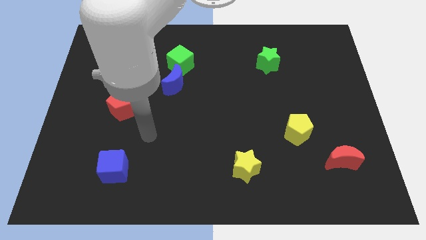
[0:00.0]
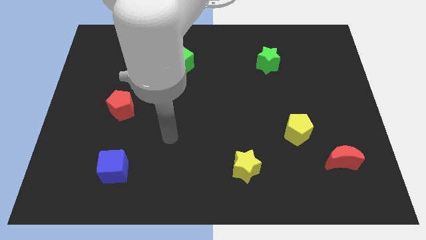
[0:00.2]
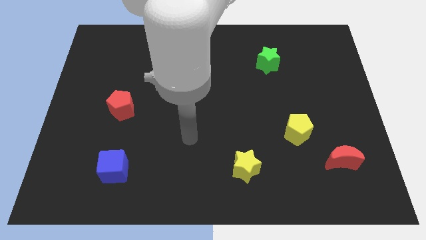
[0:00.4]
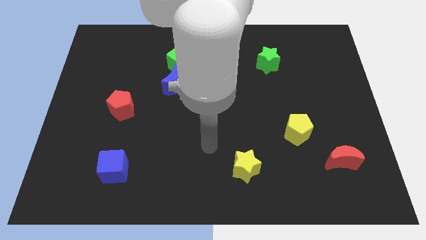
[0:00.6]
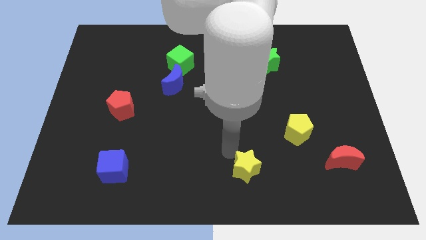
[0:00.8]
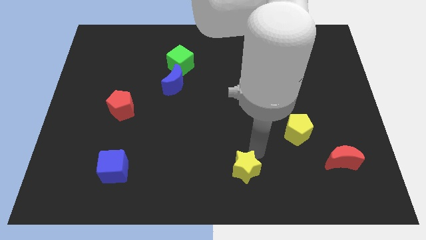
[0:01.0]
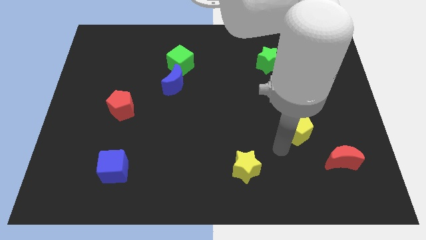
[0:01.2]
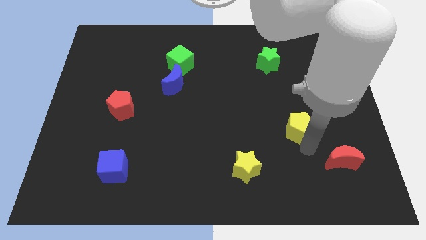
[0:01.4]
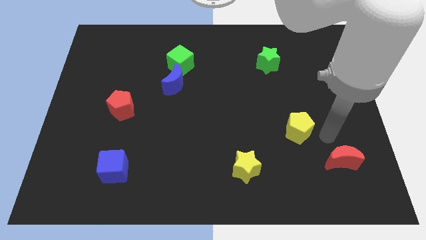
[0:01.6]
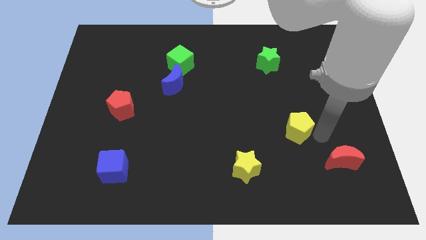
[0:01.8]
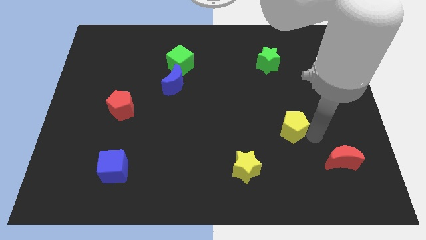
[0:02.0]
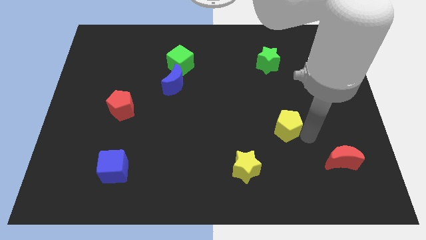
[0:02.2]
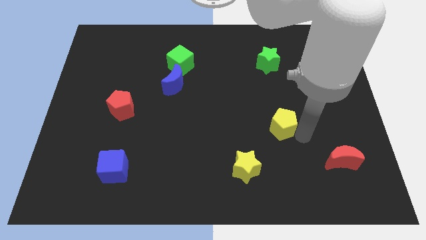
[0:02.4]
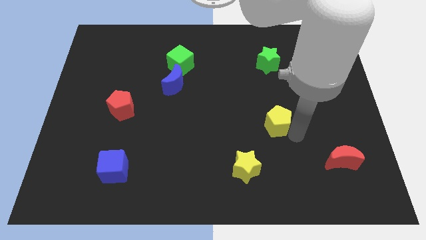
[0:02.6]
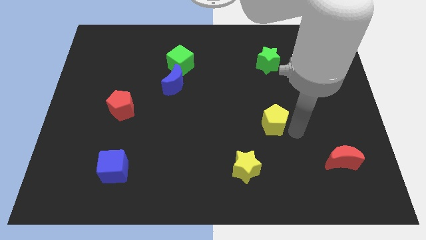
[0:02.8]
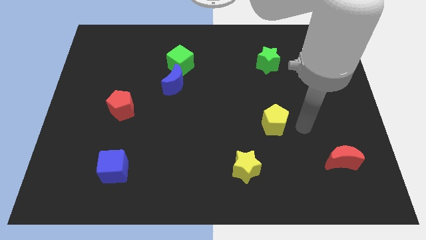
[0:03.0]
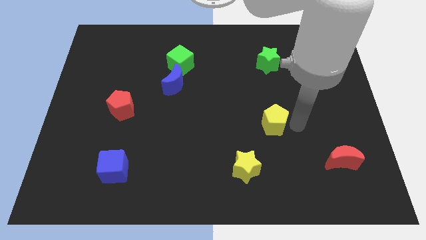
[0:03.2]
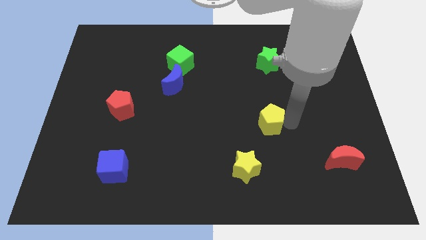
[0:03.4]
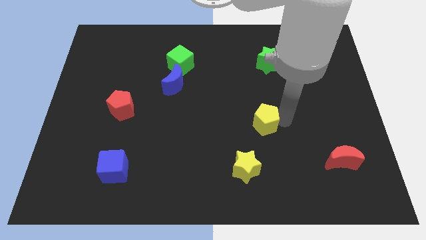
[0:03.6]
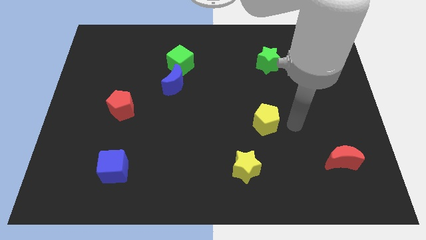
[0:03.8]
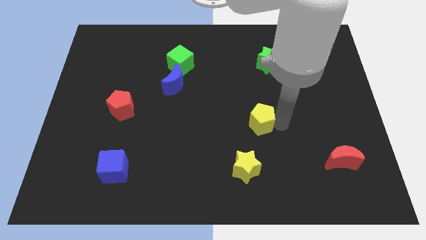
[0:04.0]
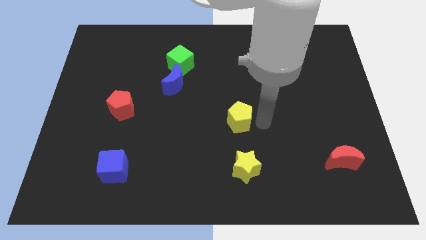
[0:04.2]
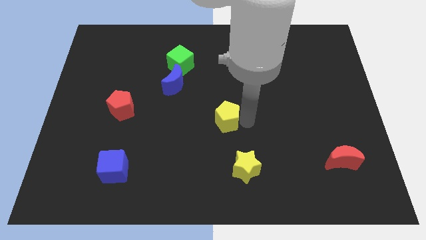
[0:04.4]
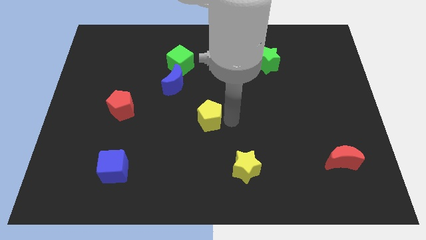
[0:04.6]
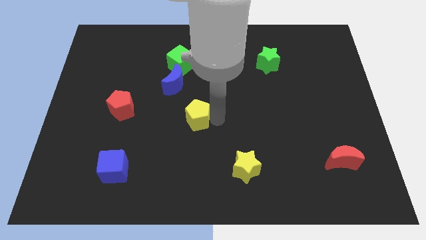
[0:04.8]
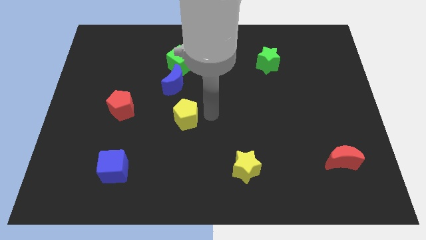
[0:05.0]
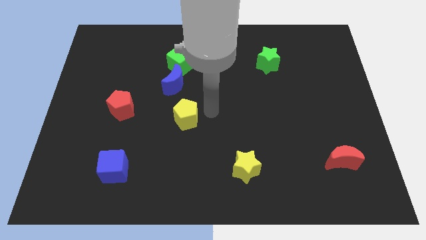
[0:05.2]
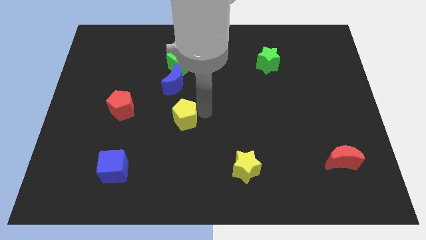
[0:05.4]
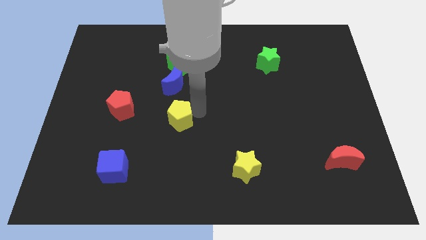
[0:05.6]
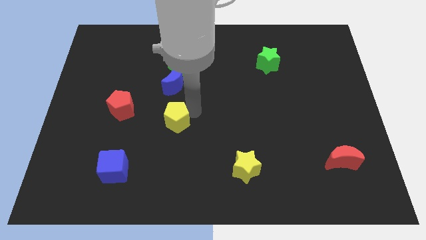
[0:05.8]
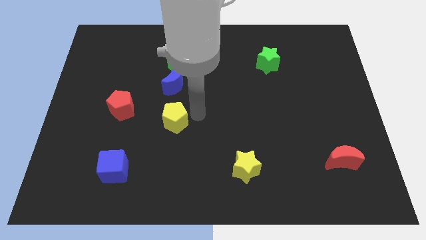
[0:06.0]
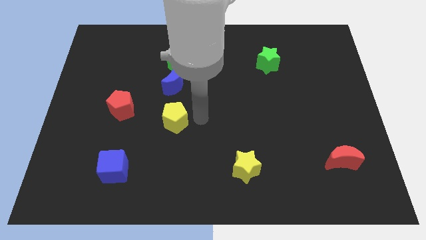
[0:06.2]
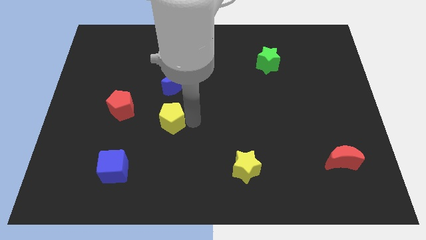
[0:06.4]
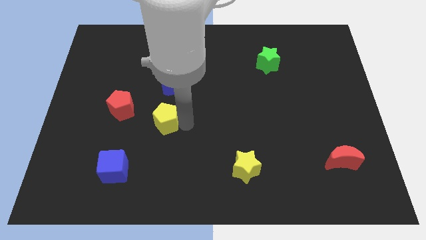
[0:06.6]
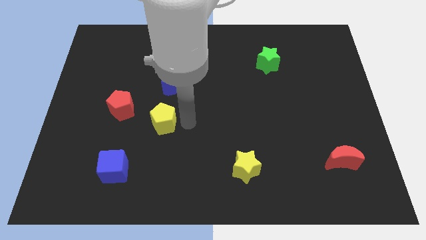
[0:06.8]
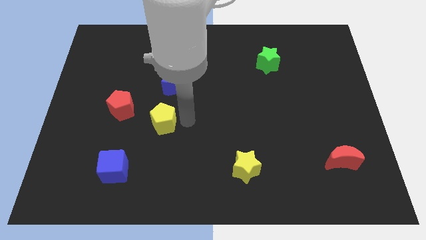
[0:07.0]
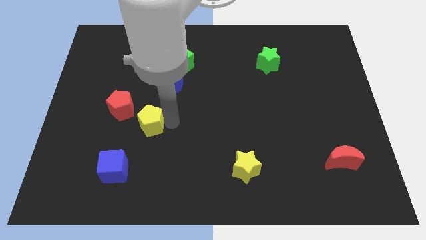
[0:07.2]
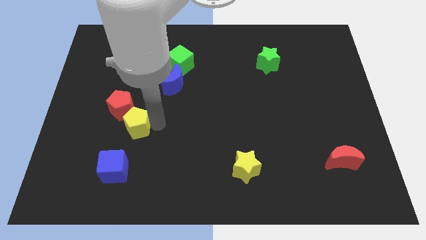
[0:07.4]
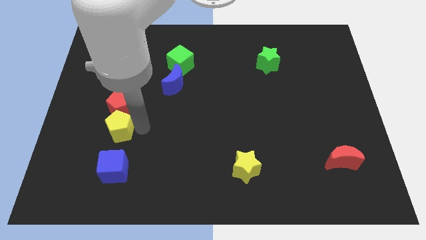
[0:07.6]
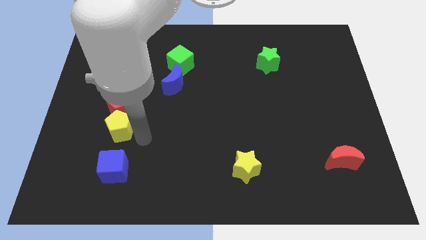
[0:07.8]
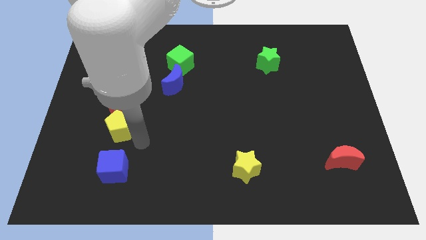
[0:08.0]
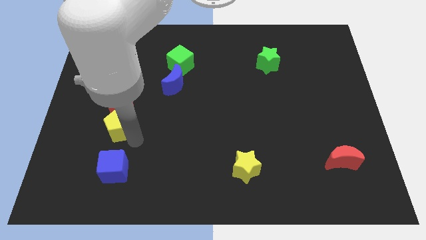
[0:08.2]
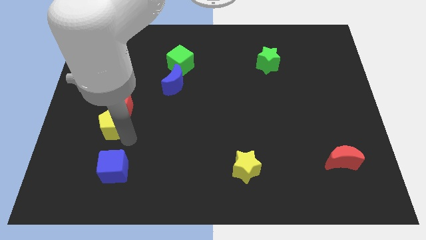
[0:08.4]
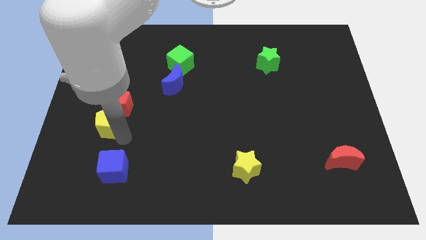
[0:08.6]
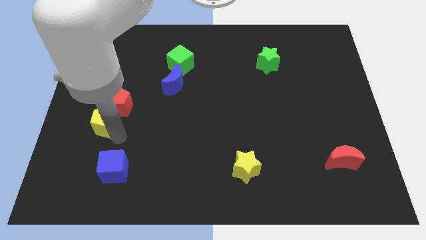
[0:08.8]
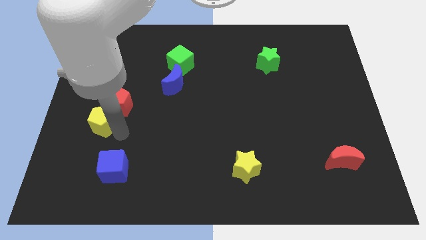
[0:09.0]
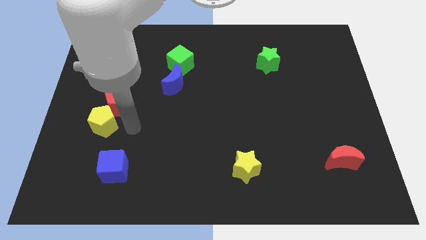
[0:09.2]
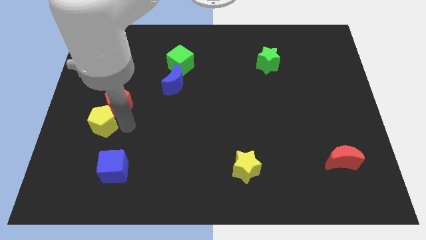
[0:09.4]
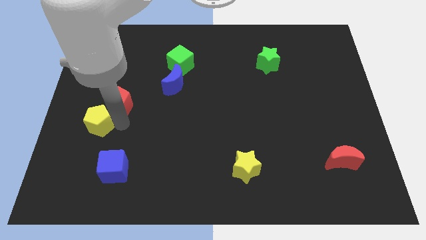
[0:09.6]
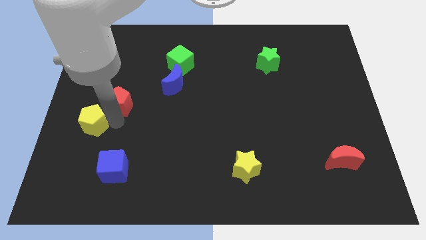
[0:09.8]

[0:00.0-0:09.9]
put the yellow pentagon to the left side

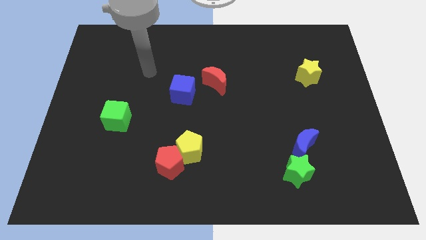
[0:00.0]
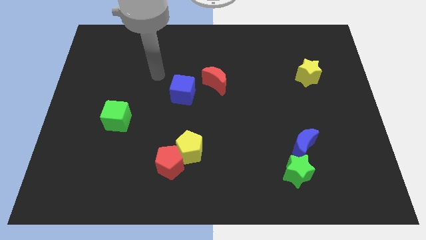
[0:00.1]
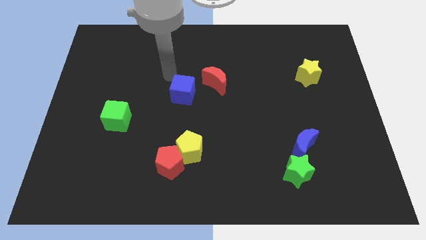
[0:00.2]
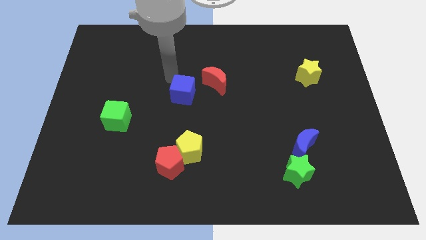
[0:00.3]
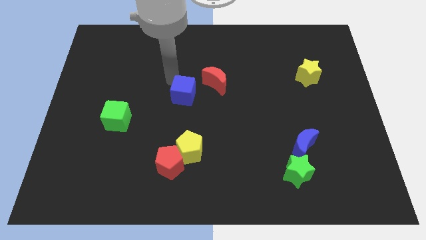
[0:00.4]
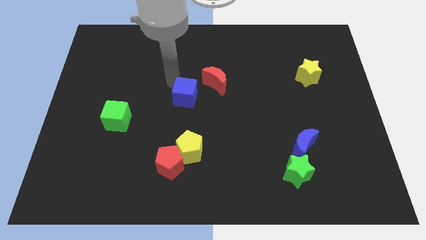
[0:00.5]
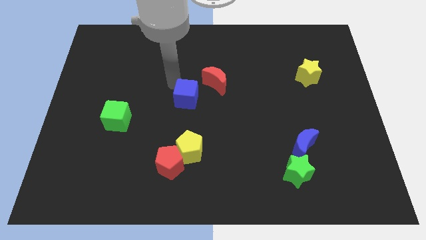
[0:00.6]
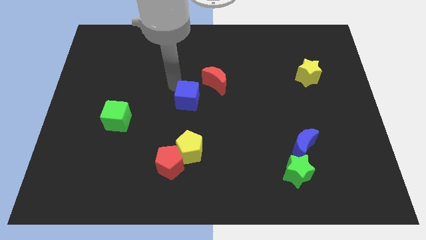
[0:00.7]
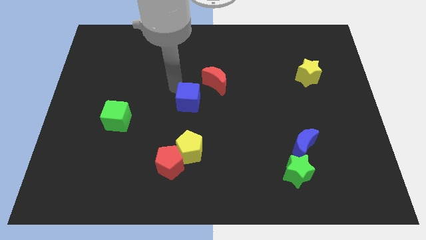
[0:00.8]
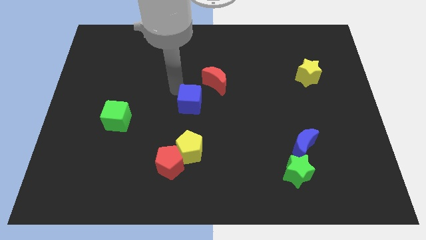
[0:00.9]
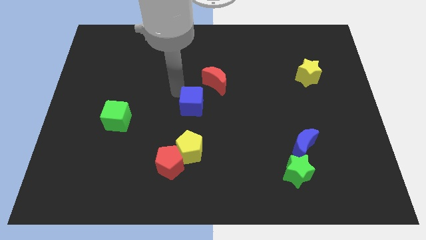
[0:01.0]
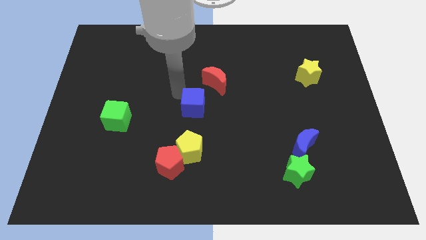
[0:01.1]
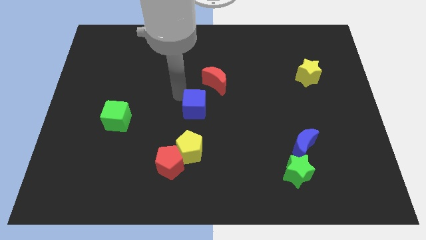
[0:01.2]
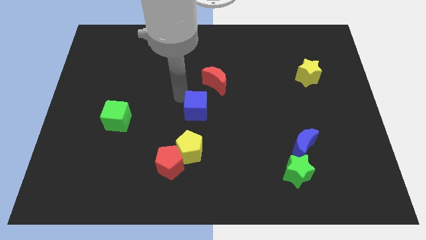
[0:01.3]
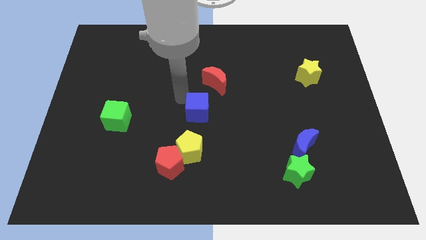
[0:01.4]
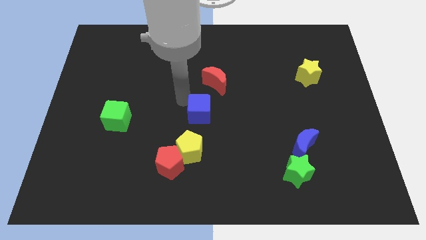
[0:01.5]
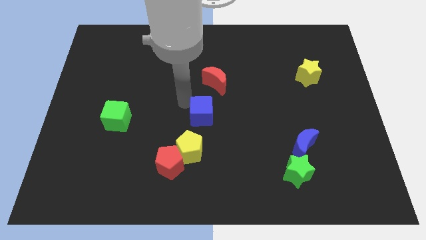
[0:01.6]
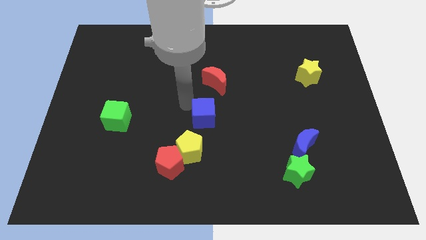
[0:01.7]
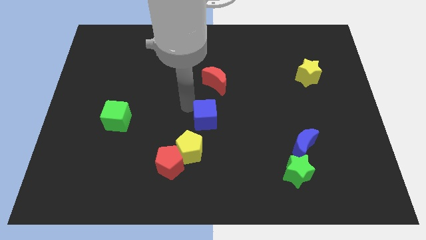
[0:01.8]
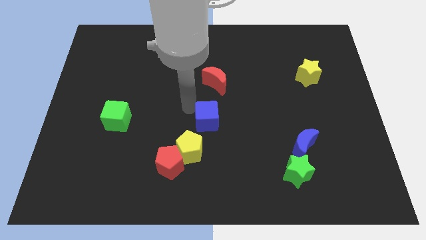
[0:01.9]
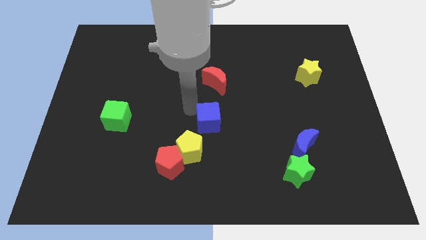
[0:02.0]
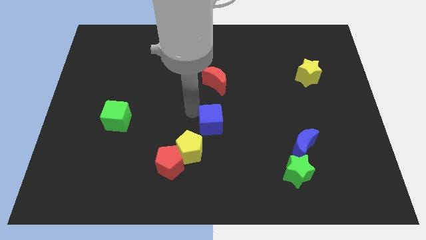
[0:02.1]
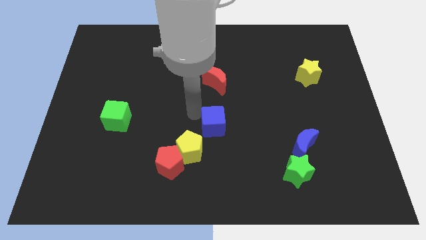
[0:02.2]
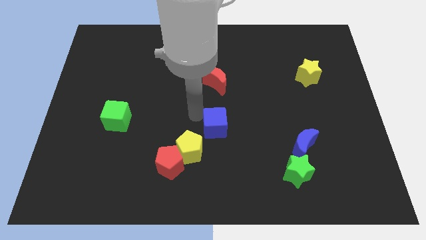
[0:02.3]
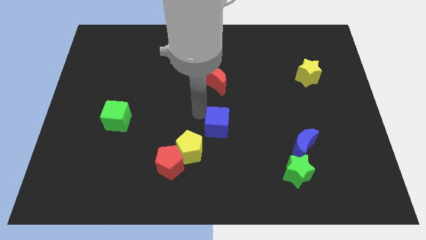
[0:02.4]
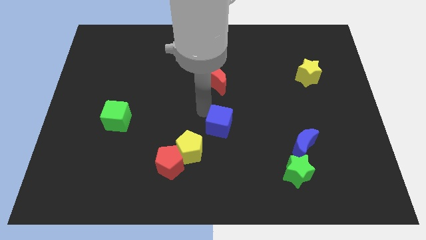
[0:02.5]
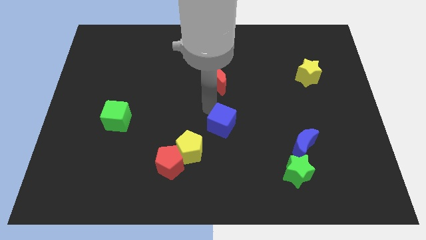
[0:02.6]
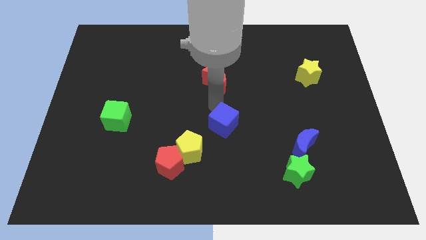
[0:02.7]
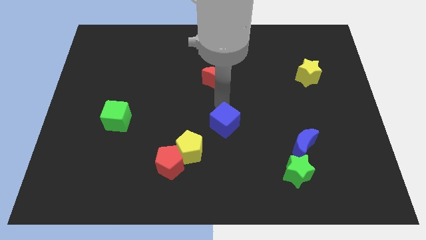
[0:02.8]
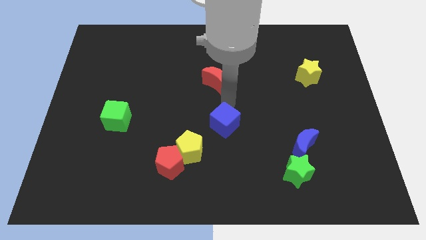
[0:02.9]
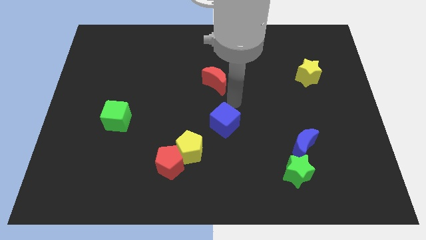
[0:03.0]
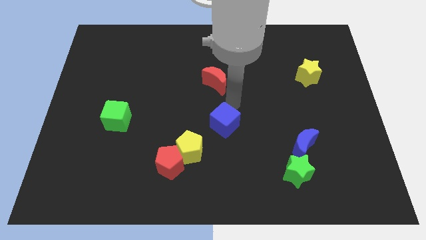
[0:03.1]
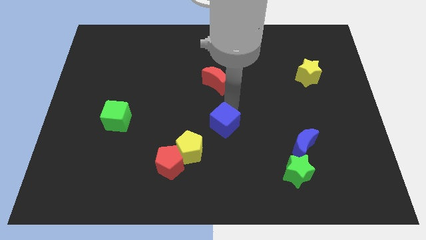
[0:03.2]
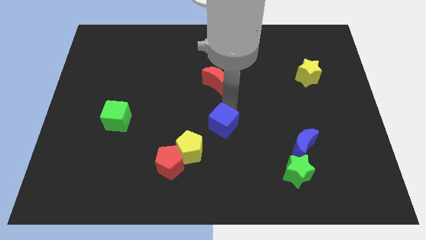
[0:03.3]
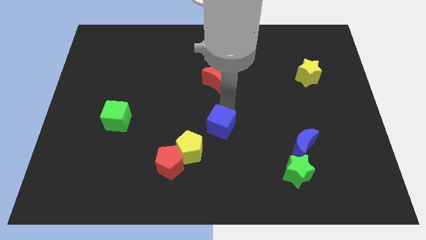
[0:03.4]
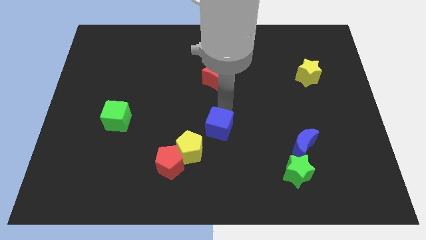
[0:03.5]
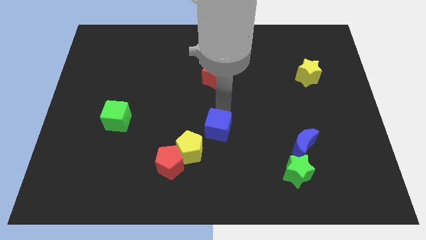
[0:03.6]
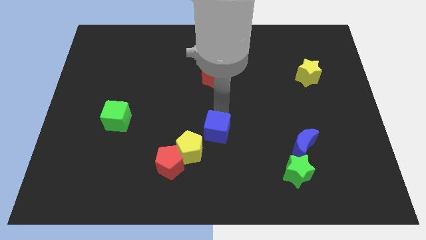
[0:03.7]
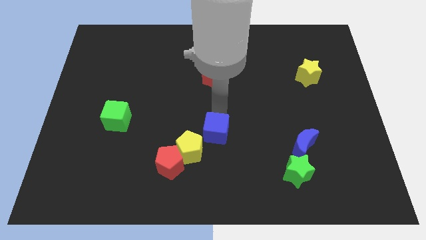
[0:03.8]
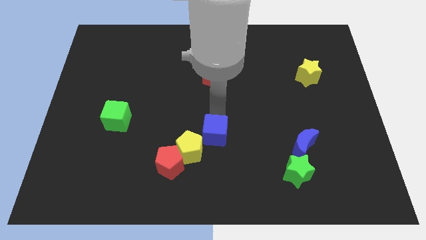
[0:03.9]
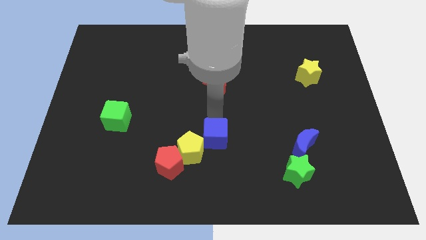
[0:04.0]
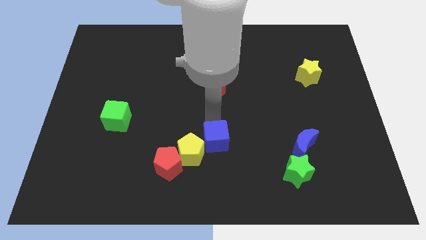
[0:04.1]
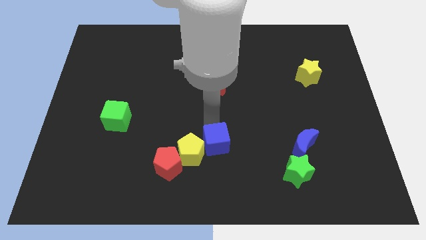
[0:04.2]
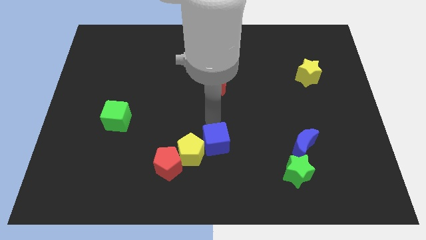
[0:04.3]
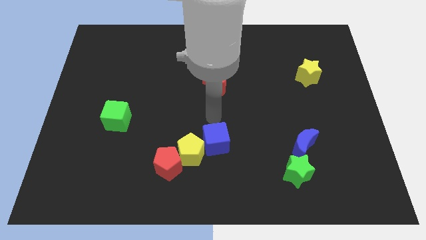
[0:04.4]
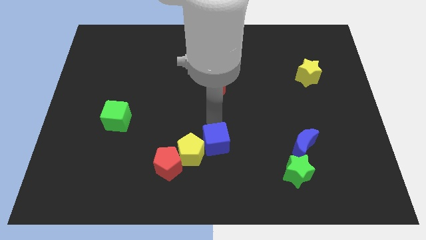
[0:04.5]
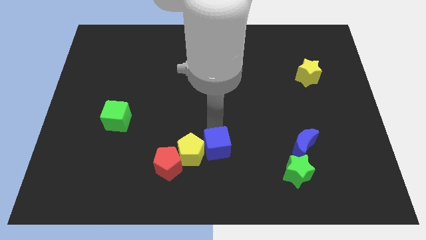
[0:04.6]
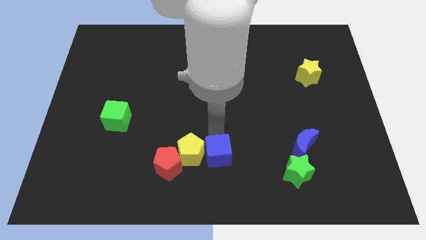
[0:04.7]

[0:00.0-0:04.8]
push the blue cube to the bottom side
